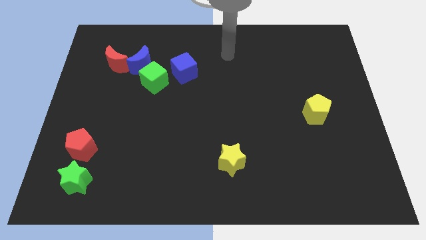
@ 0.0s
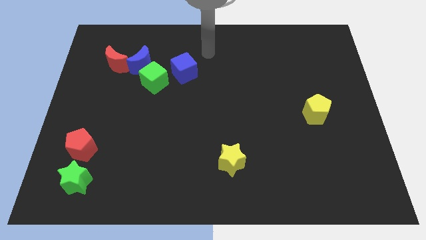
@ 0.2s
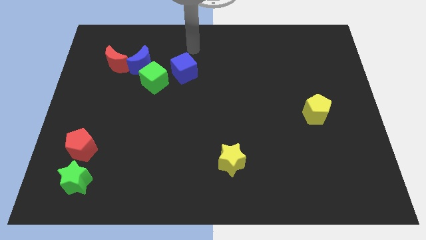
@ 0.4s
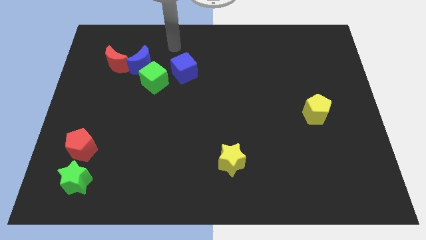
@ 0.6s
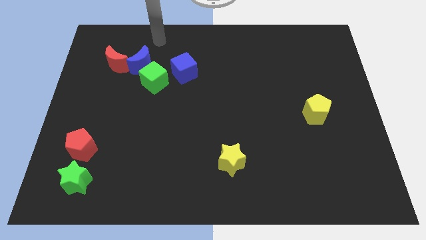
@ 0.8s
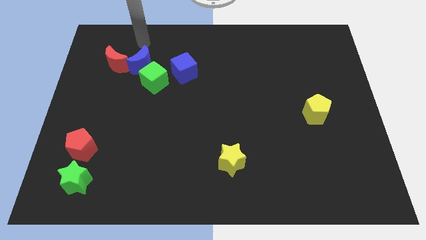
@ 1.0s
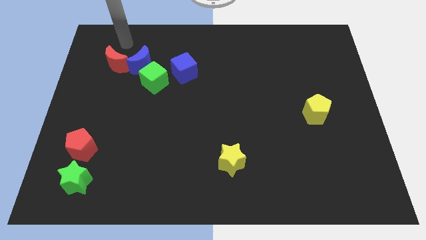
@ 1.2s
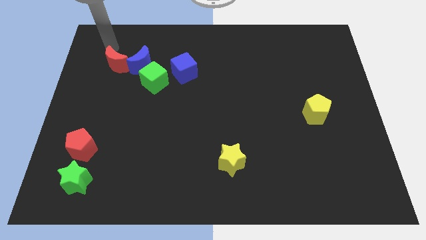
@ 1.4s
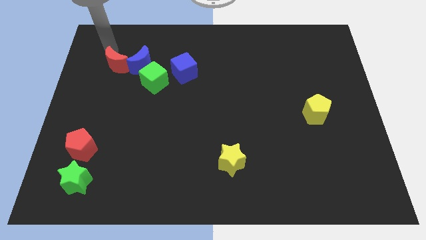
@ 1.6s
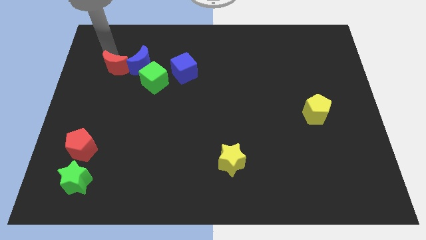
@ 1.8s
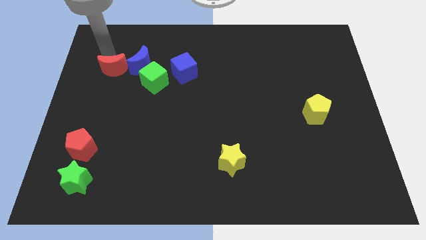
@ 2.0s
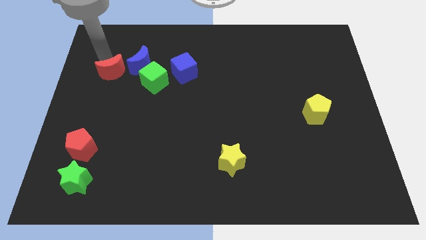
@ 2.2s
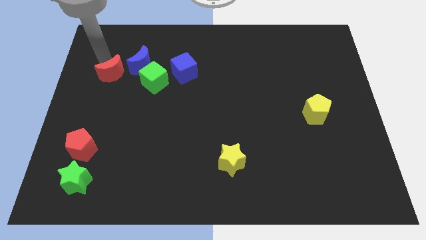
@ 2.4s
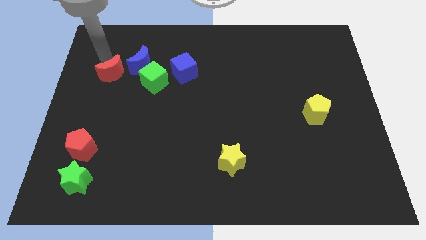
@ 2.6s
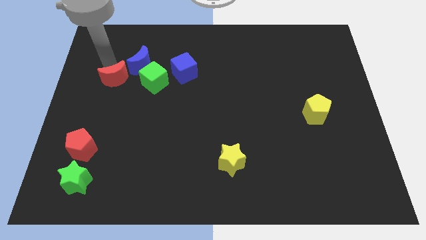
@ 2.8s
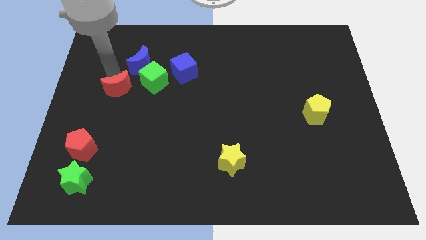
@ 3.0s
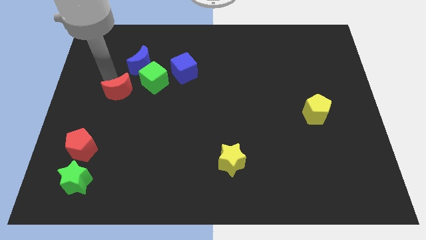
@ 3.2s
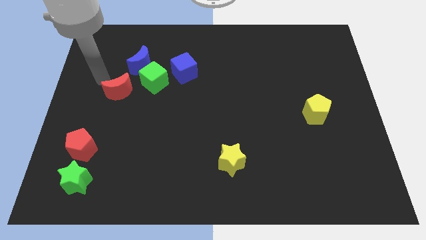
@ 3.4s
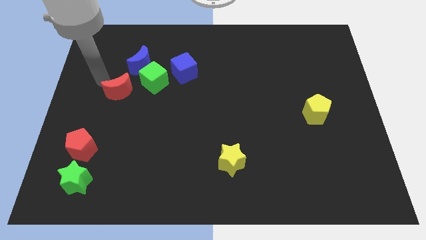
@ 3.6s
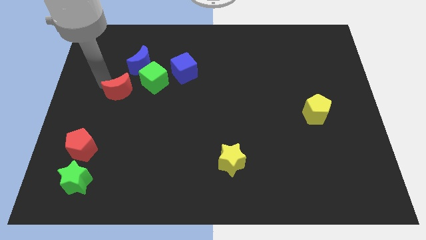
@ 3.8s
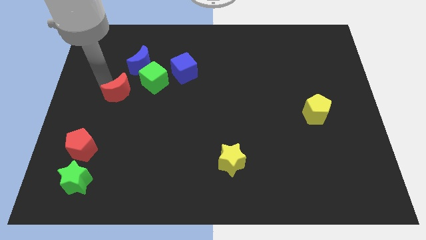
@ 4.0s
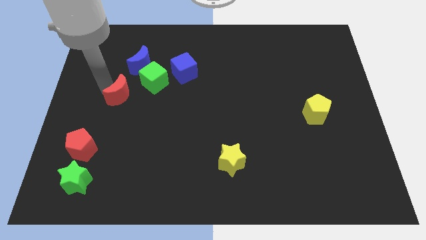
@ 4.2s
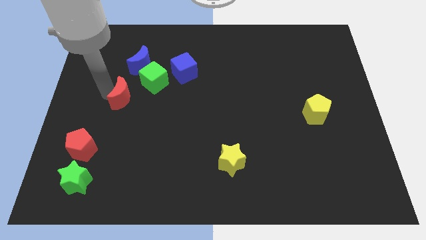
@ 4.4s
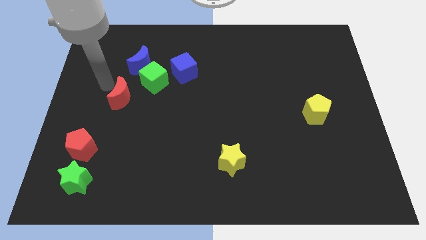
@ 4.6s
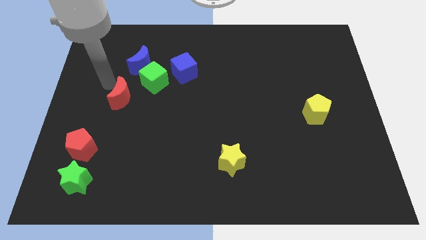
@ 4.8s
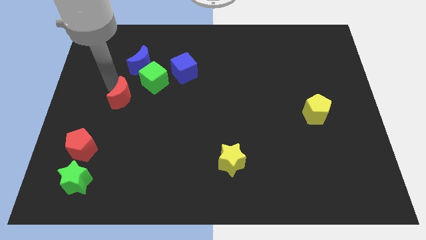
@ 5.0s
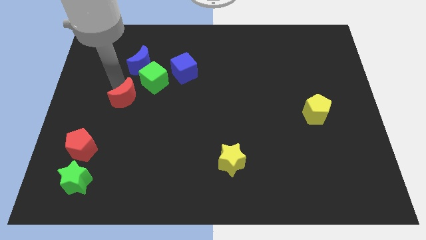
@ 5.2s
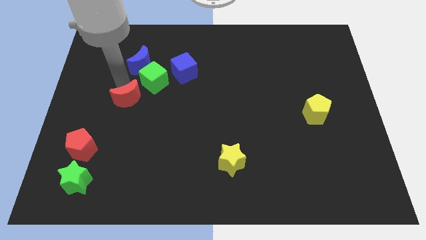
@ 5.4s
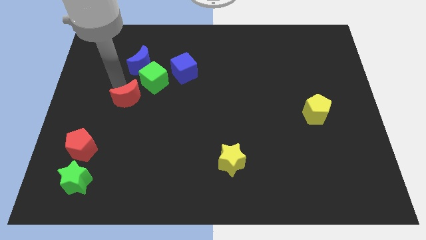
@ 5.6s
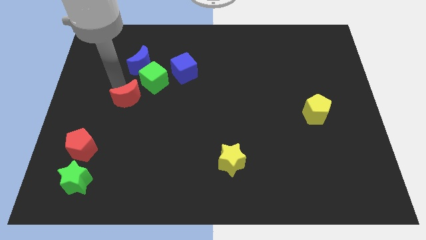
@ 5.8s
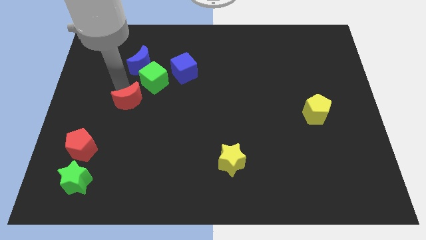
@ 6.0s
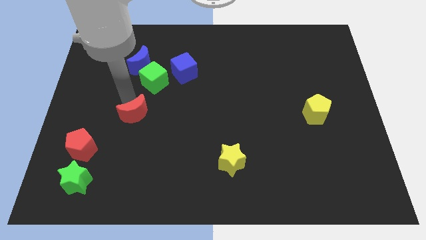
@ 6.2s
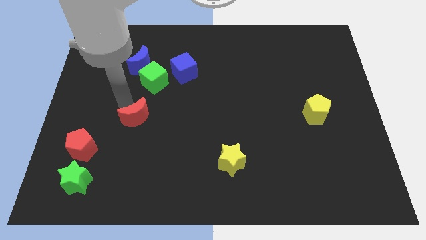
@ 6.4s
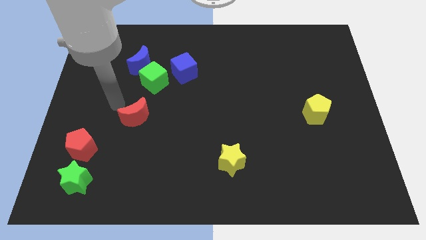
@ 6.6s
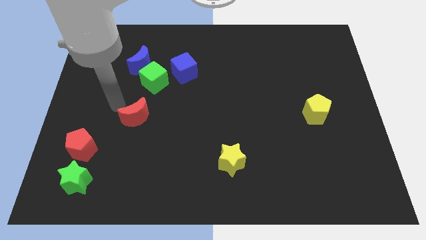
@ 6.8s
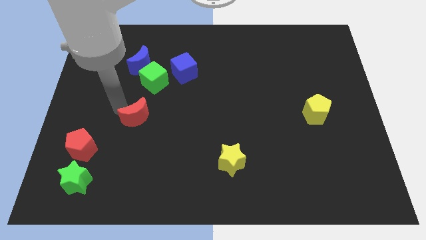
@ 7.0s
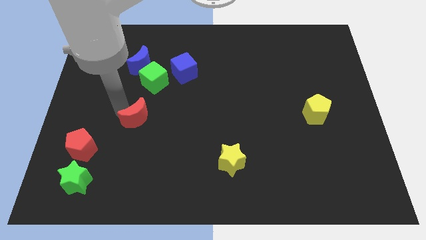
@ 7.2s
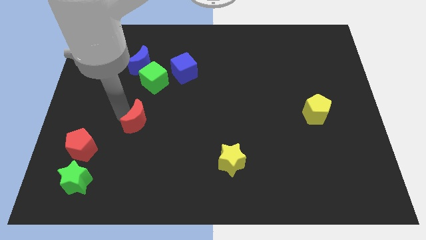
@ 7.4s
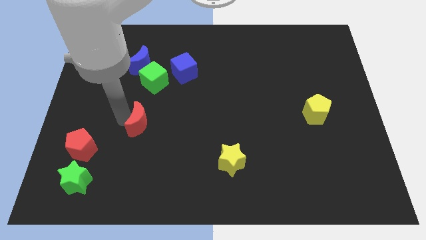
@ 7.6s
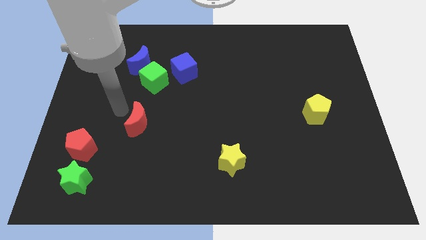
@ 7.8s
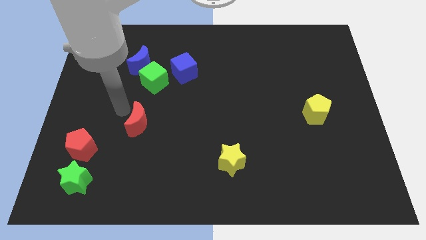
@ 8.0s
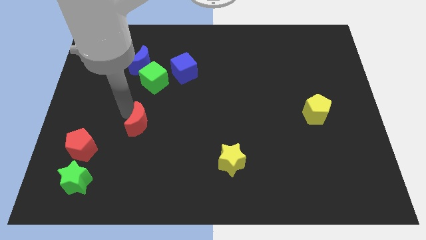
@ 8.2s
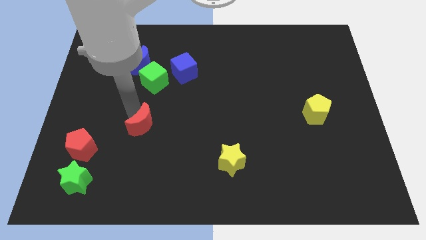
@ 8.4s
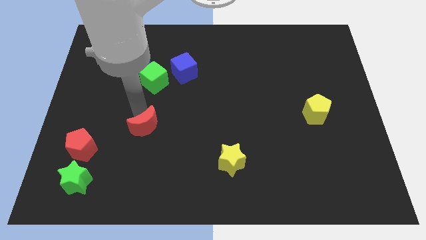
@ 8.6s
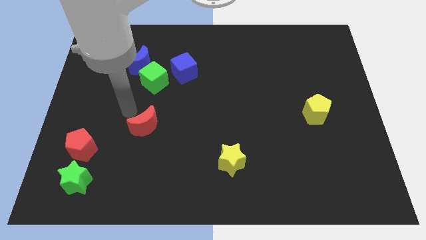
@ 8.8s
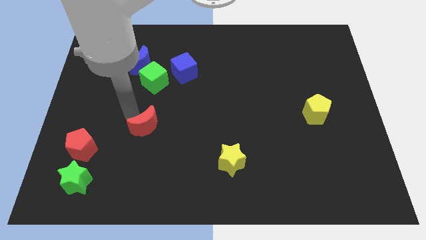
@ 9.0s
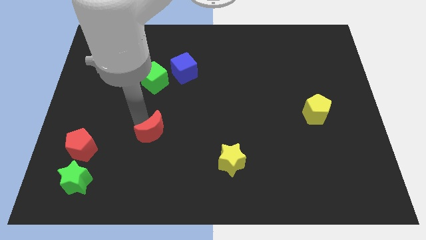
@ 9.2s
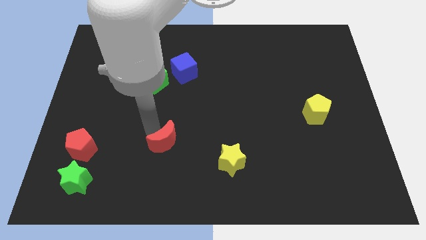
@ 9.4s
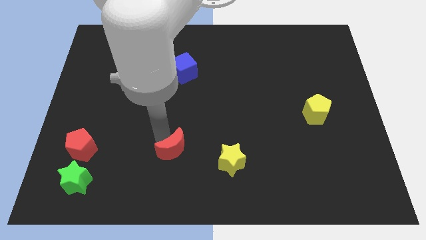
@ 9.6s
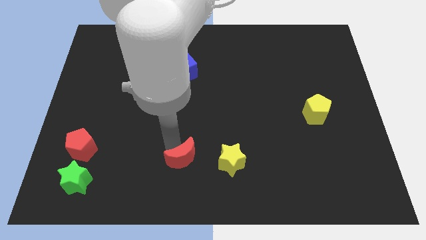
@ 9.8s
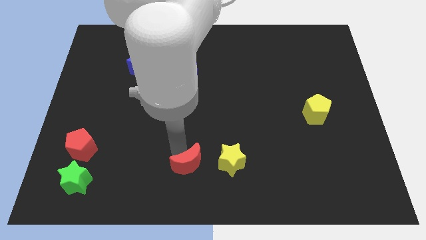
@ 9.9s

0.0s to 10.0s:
slide the red moon to the bottom

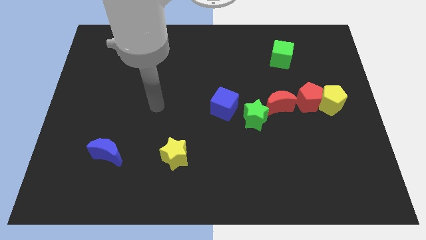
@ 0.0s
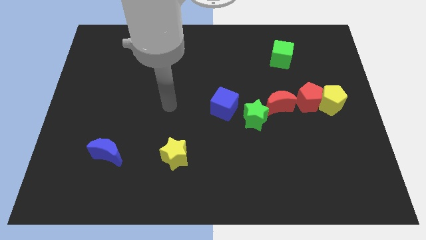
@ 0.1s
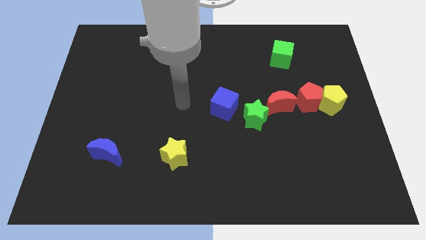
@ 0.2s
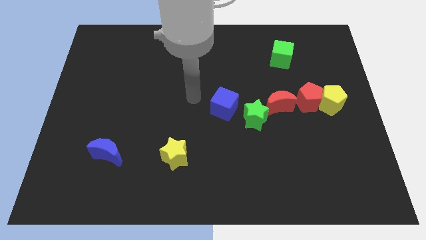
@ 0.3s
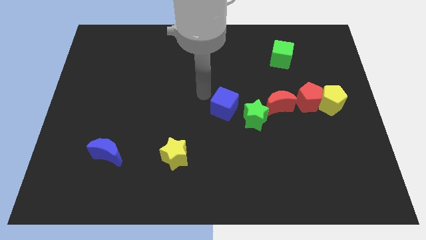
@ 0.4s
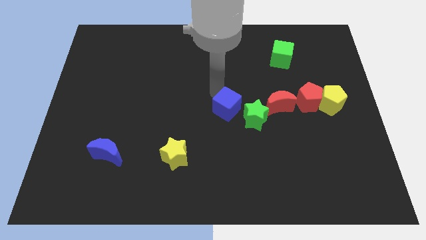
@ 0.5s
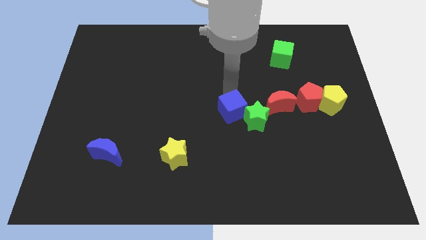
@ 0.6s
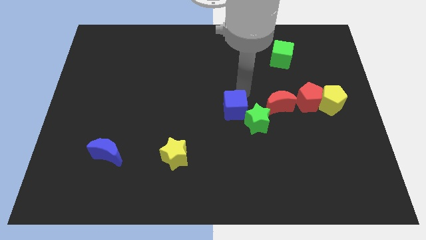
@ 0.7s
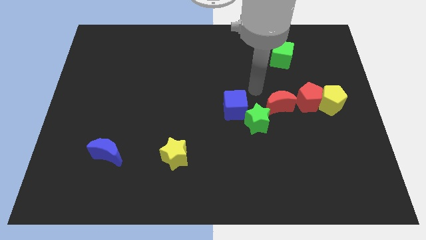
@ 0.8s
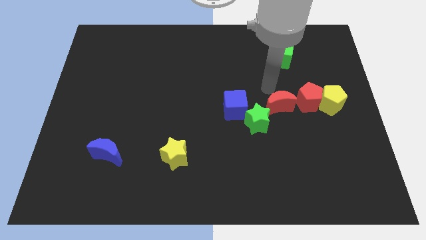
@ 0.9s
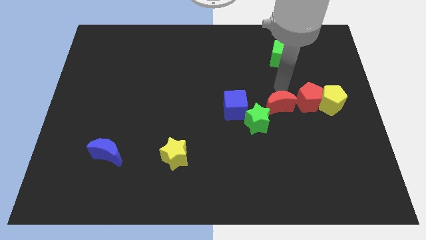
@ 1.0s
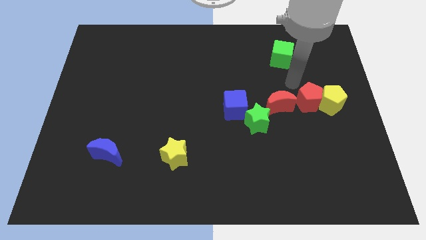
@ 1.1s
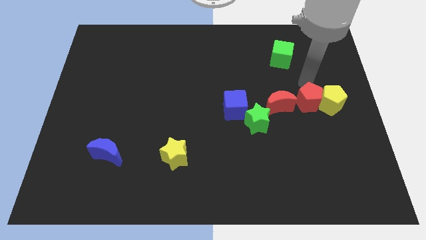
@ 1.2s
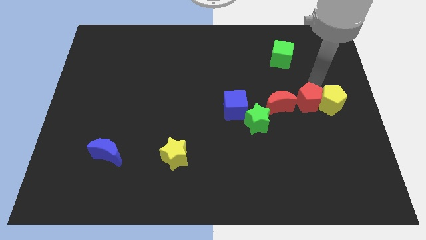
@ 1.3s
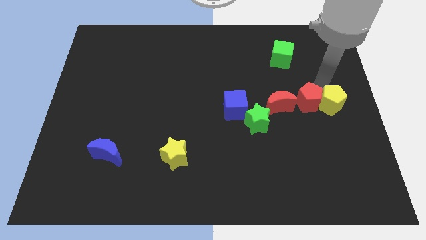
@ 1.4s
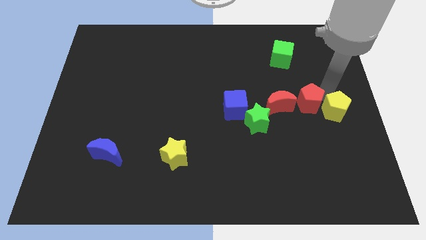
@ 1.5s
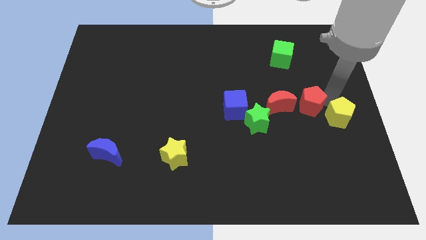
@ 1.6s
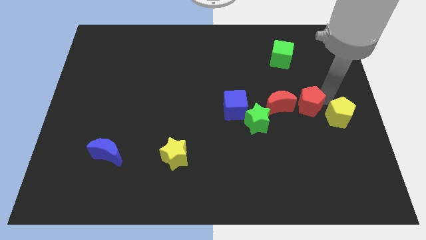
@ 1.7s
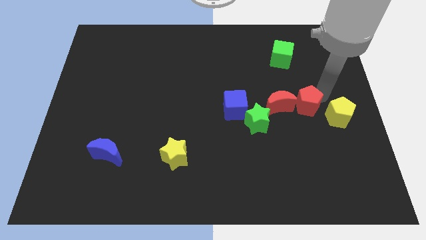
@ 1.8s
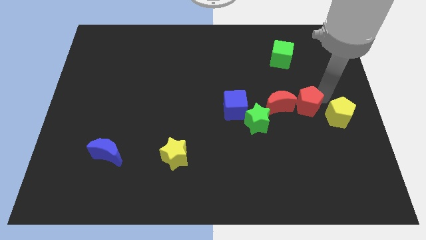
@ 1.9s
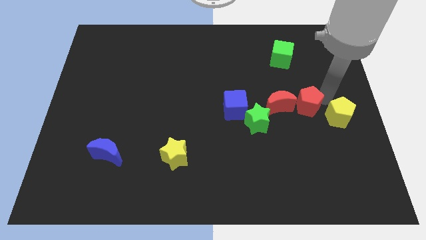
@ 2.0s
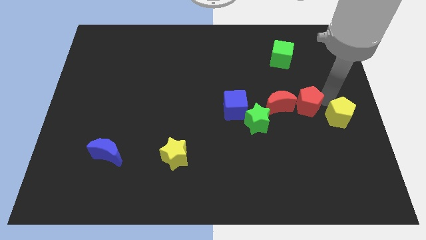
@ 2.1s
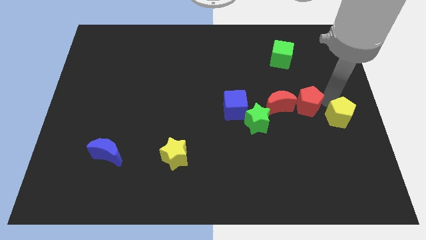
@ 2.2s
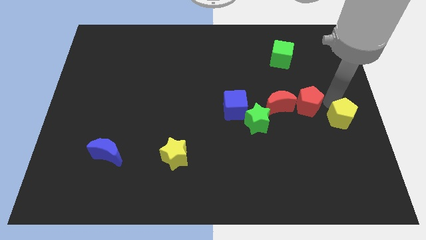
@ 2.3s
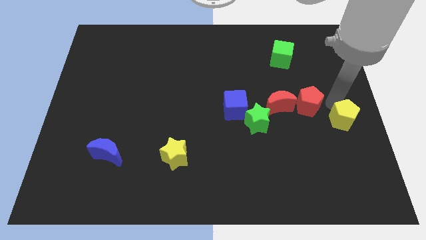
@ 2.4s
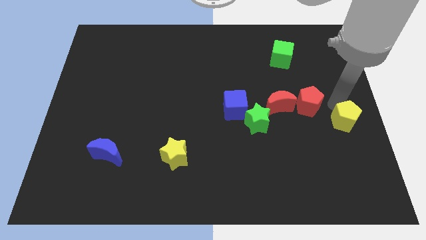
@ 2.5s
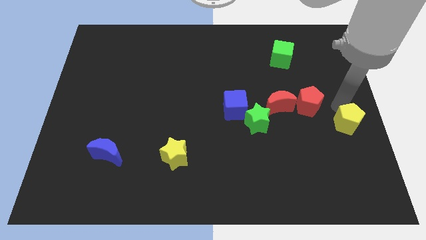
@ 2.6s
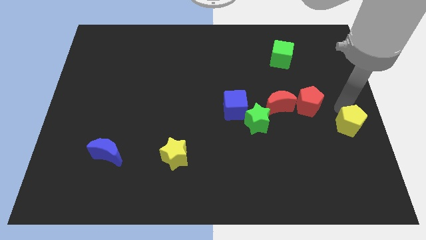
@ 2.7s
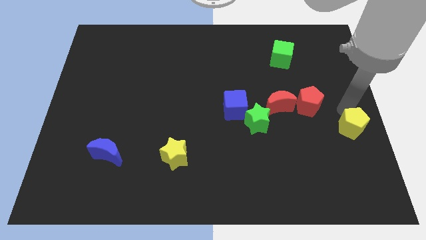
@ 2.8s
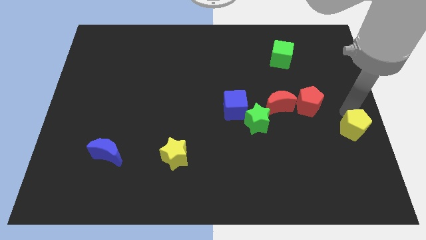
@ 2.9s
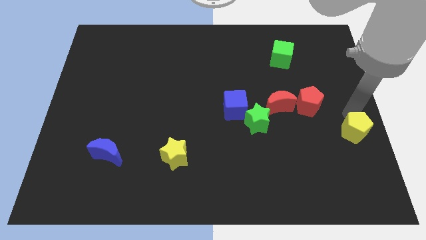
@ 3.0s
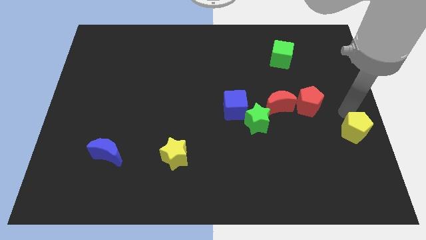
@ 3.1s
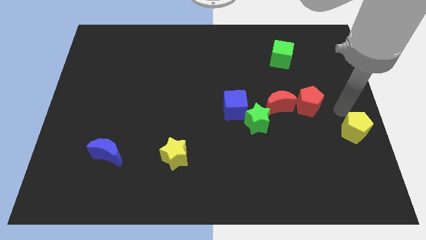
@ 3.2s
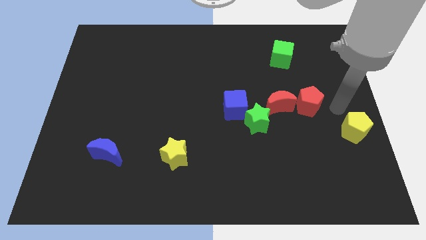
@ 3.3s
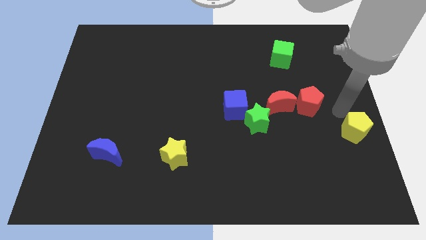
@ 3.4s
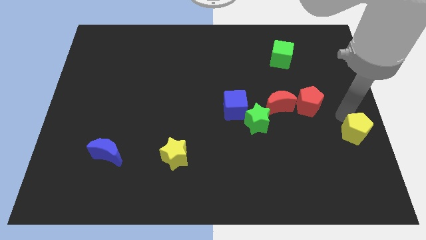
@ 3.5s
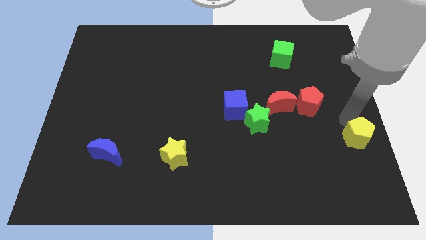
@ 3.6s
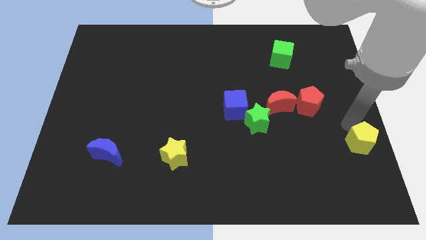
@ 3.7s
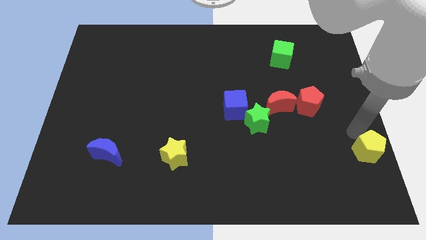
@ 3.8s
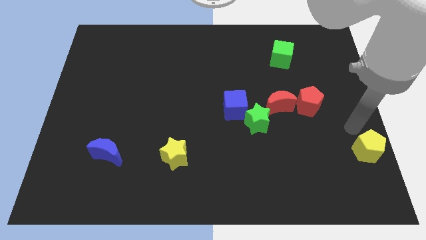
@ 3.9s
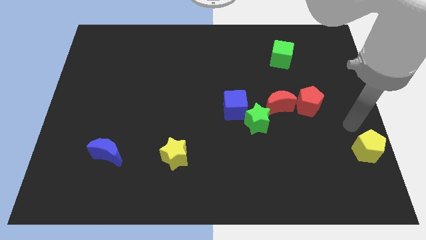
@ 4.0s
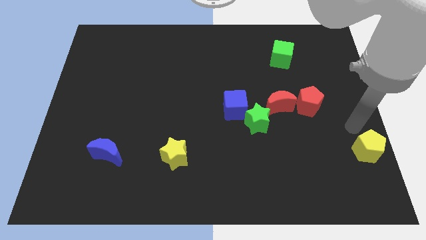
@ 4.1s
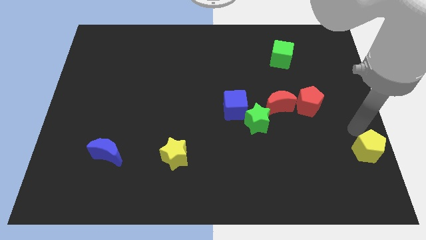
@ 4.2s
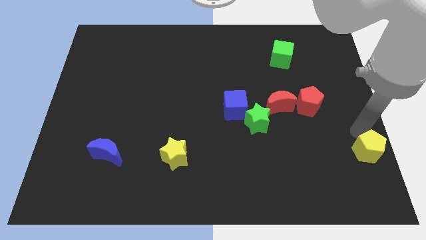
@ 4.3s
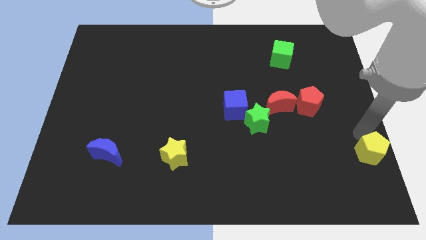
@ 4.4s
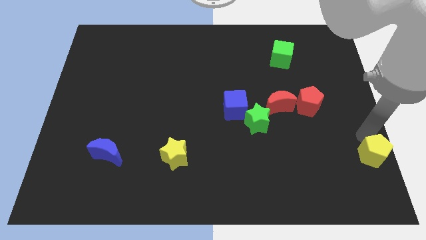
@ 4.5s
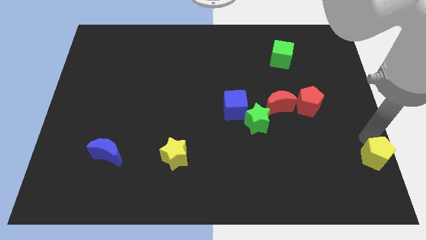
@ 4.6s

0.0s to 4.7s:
move the yellow pentagon to the lower right corner
